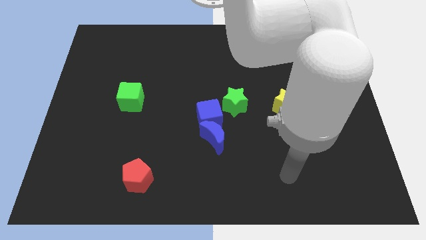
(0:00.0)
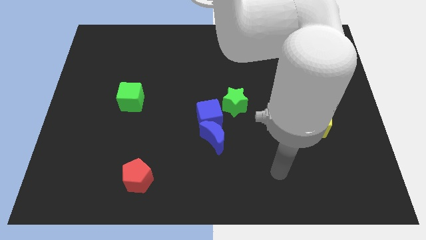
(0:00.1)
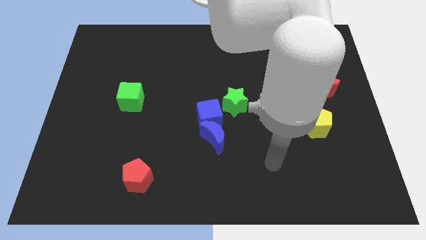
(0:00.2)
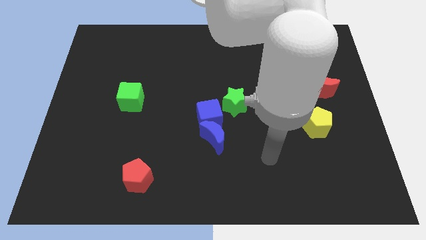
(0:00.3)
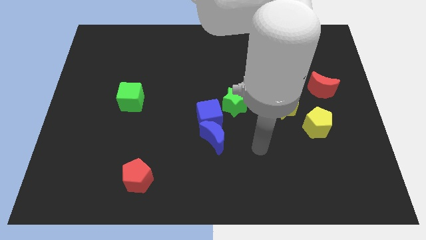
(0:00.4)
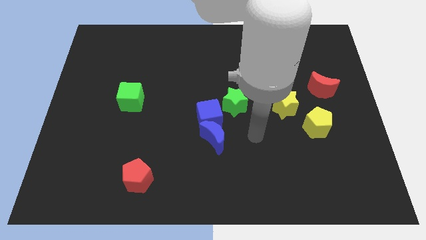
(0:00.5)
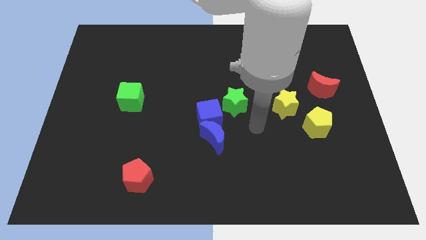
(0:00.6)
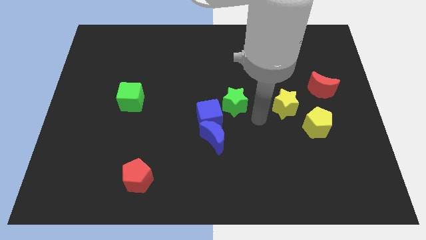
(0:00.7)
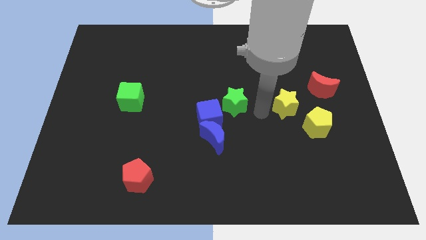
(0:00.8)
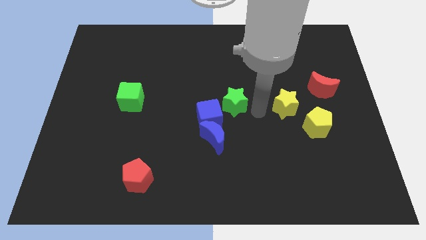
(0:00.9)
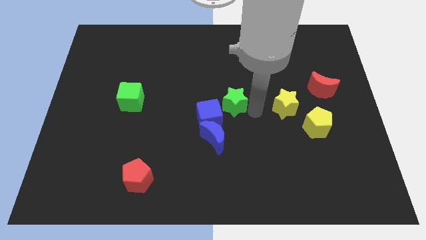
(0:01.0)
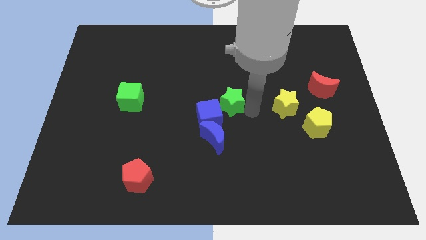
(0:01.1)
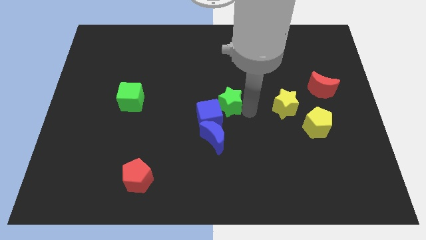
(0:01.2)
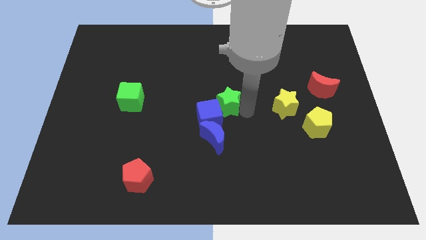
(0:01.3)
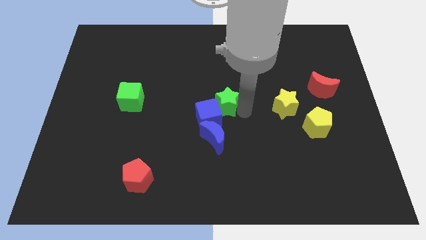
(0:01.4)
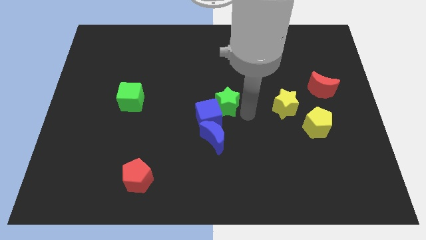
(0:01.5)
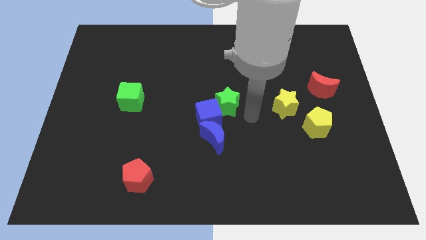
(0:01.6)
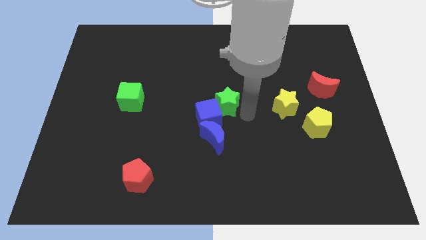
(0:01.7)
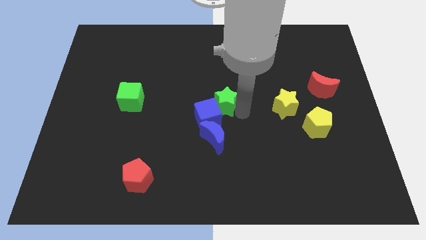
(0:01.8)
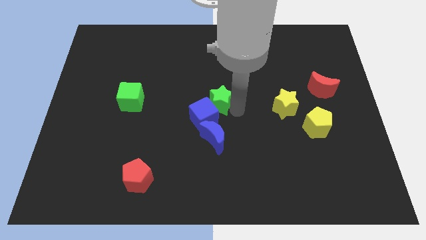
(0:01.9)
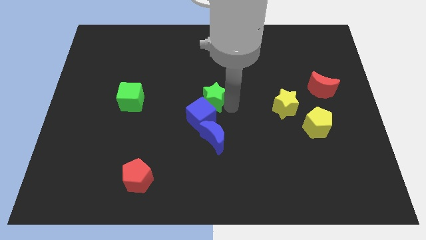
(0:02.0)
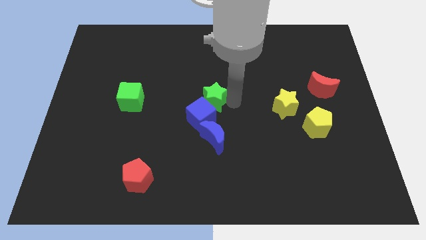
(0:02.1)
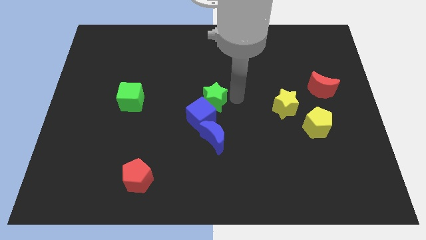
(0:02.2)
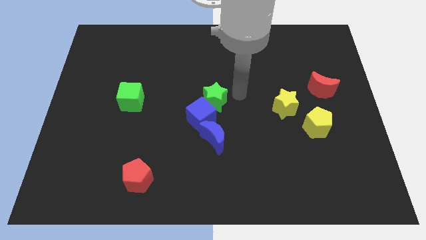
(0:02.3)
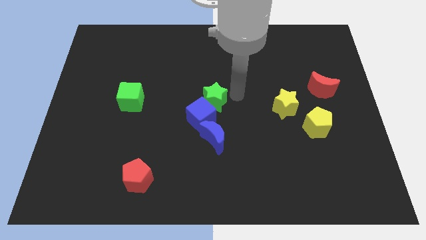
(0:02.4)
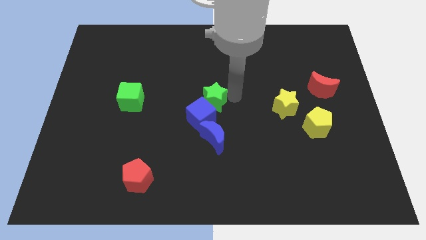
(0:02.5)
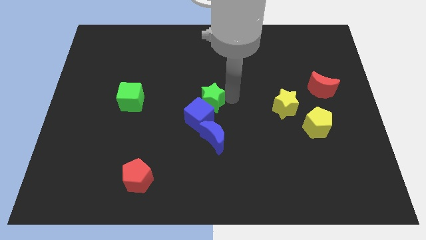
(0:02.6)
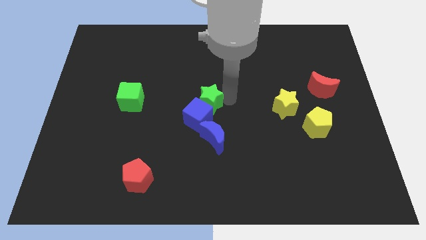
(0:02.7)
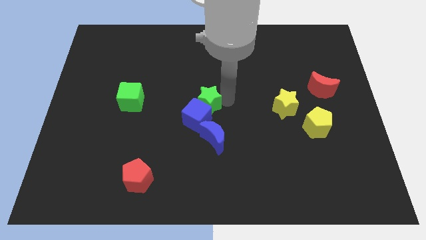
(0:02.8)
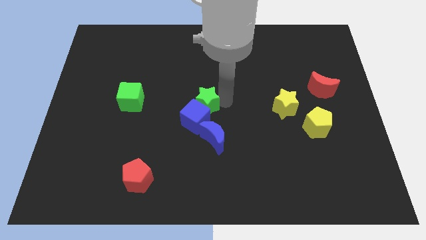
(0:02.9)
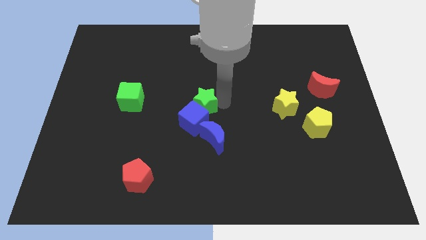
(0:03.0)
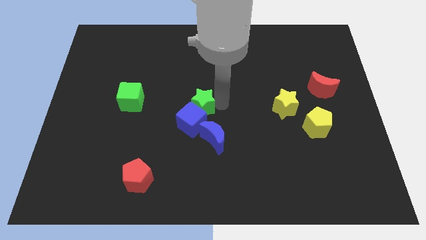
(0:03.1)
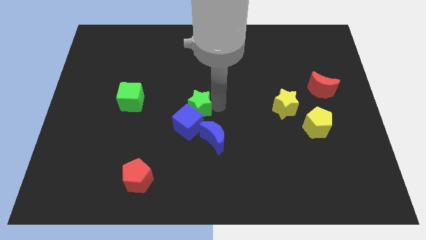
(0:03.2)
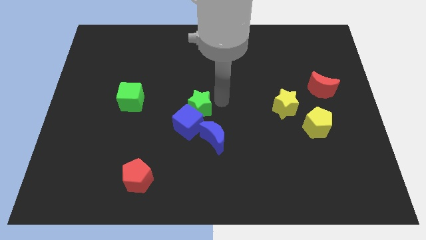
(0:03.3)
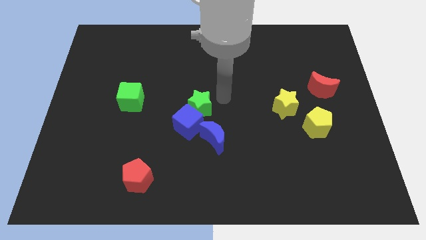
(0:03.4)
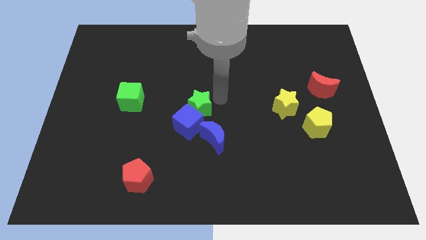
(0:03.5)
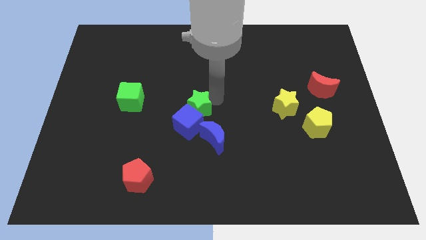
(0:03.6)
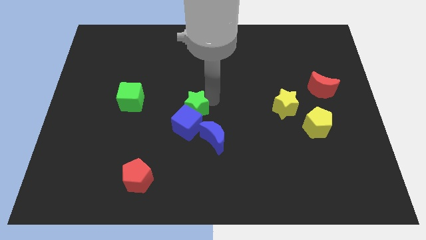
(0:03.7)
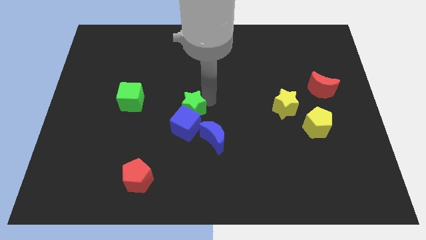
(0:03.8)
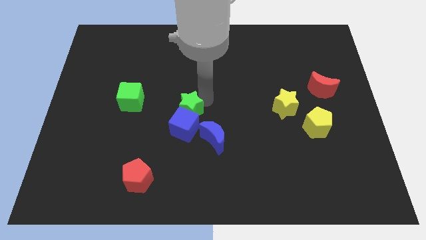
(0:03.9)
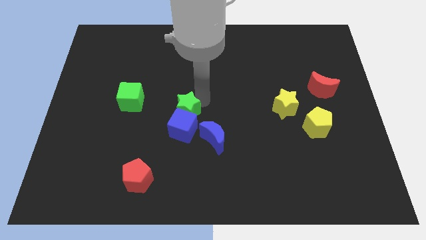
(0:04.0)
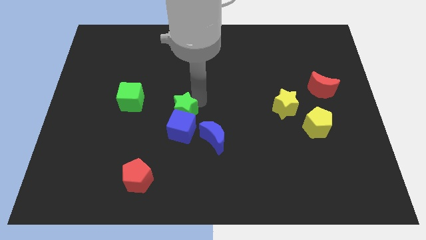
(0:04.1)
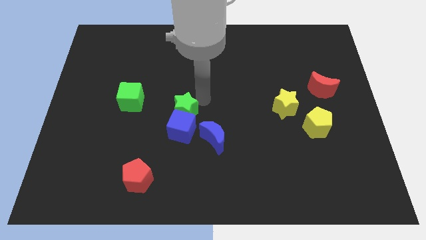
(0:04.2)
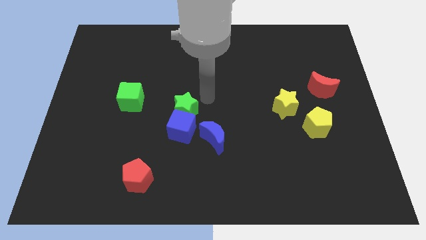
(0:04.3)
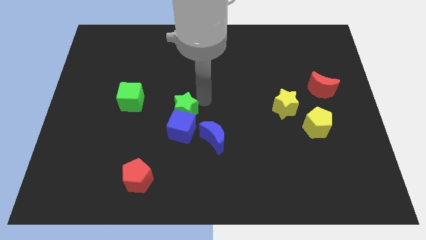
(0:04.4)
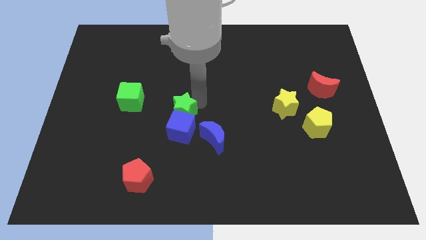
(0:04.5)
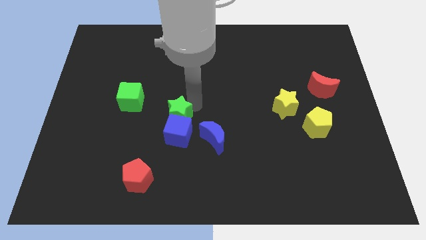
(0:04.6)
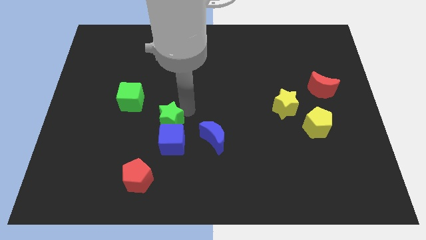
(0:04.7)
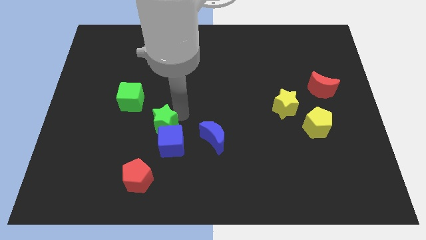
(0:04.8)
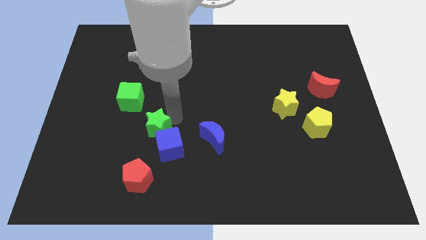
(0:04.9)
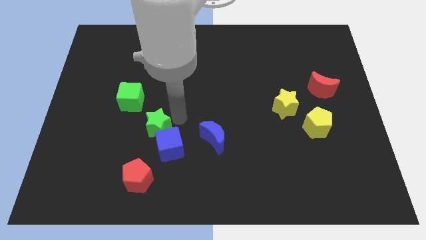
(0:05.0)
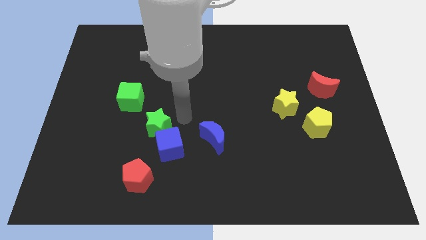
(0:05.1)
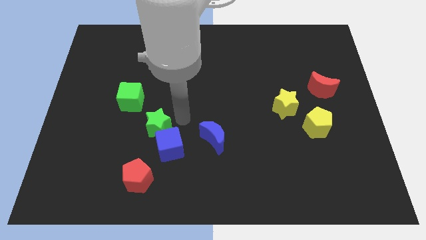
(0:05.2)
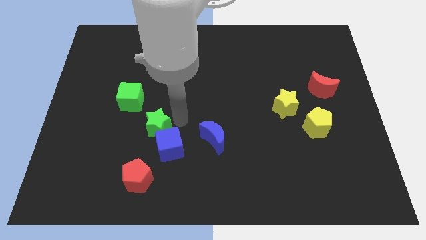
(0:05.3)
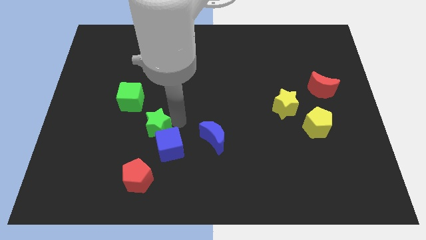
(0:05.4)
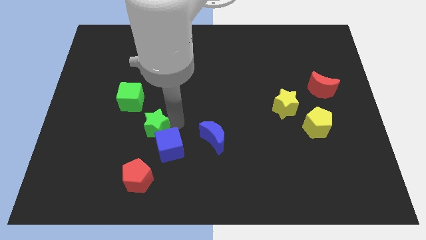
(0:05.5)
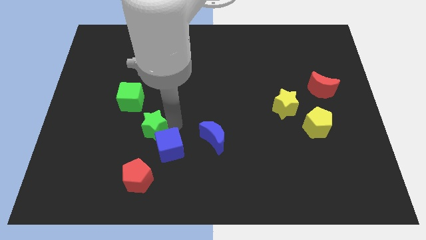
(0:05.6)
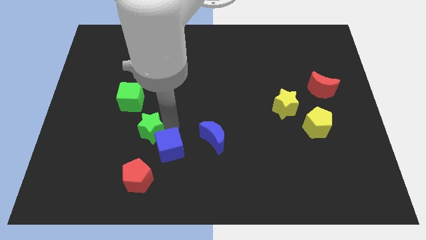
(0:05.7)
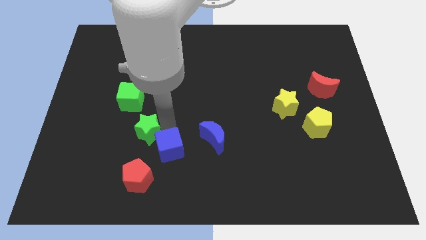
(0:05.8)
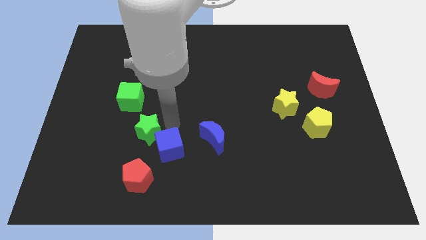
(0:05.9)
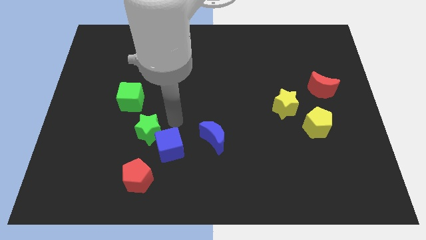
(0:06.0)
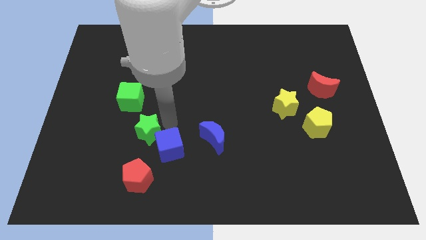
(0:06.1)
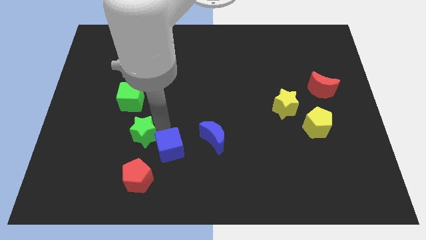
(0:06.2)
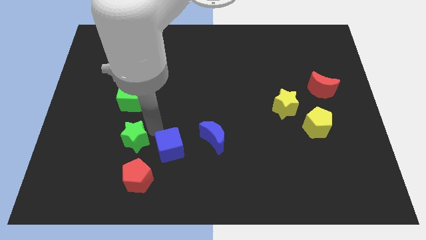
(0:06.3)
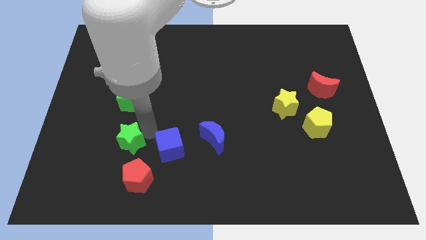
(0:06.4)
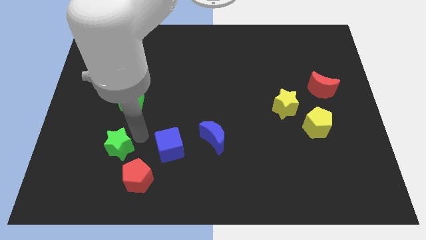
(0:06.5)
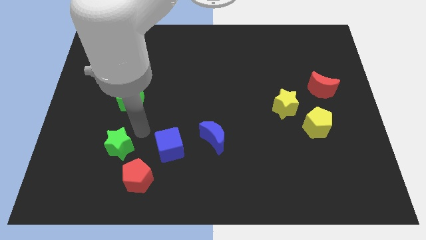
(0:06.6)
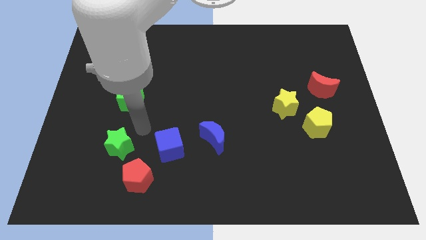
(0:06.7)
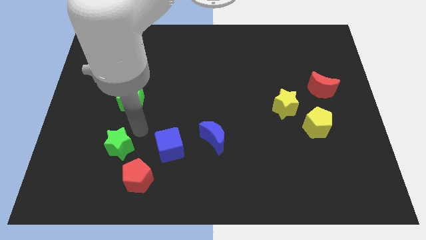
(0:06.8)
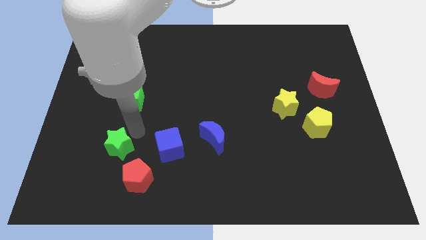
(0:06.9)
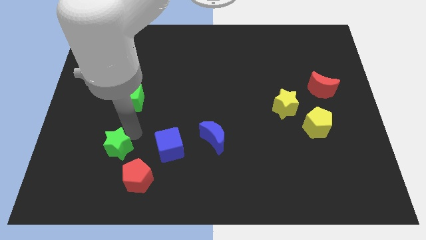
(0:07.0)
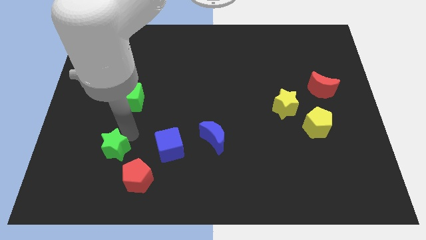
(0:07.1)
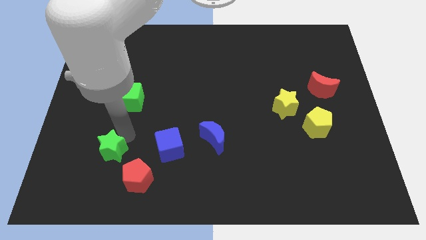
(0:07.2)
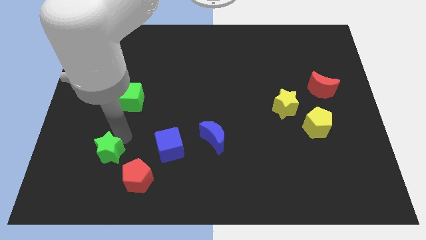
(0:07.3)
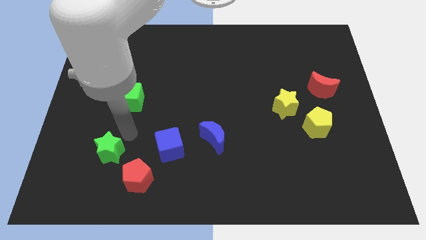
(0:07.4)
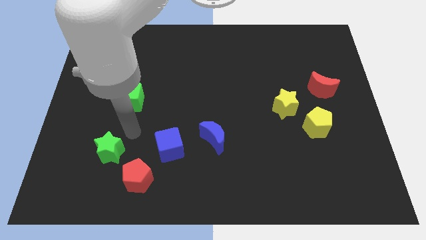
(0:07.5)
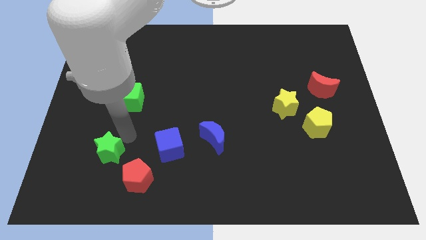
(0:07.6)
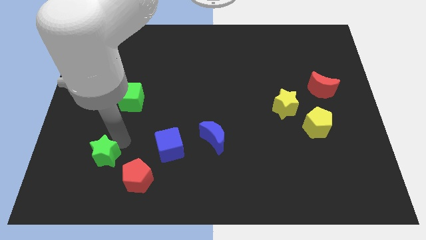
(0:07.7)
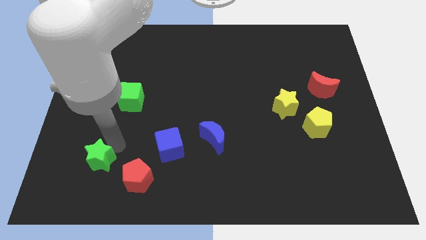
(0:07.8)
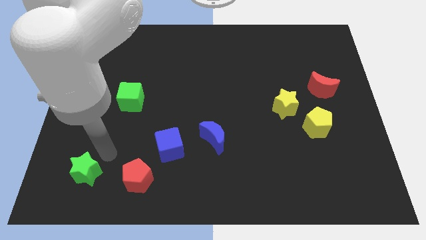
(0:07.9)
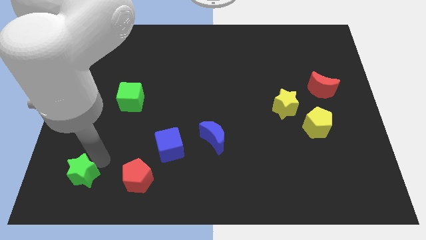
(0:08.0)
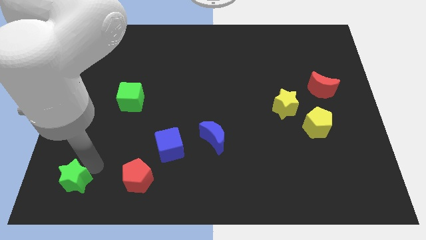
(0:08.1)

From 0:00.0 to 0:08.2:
move the green star to the lower left corner
